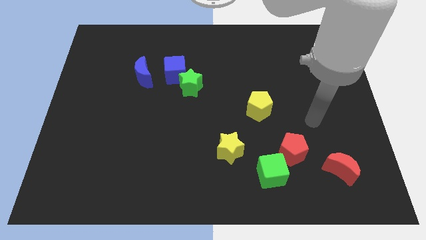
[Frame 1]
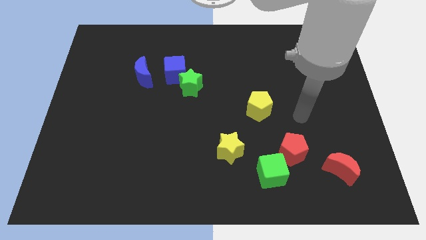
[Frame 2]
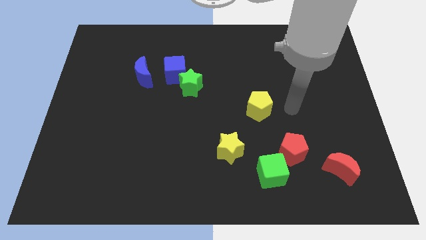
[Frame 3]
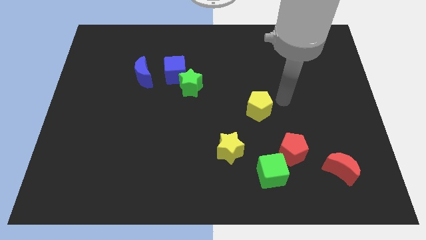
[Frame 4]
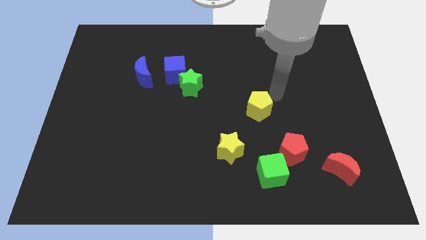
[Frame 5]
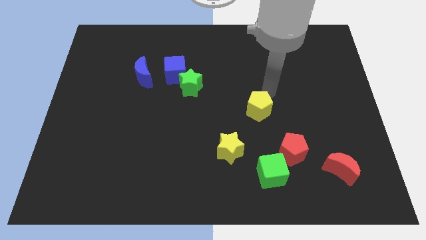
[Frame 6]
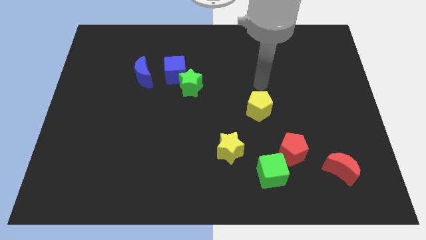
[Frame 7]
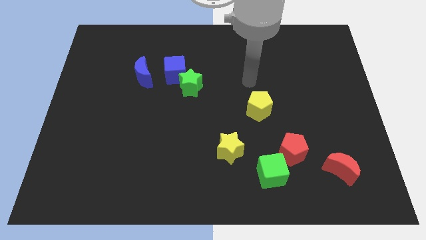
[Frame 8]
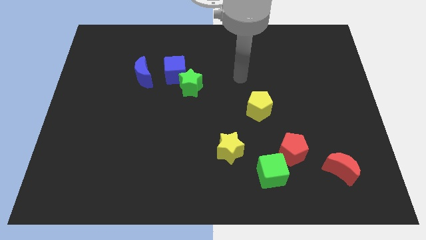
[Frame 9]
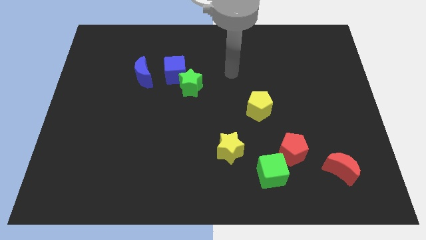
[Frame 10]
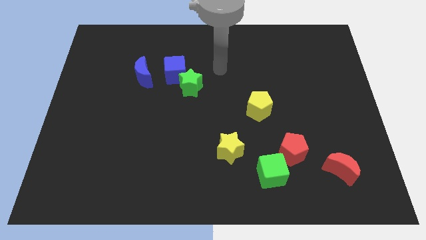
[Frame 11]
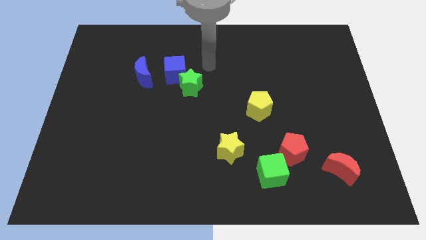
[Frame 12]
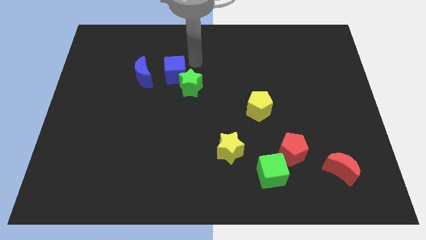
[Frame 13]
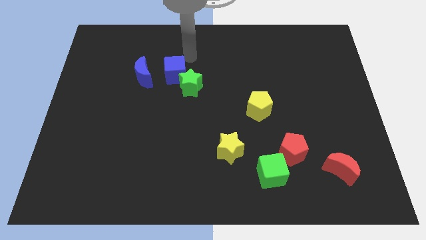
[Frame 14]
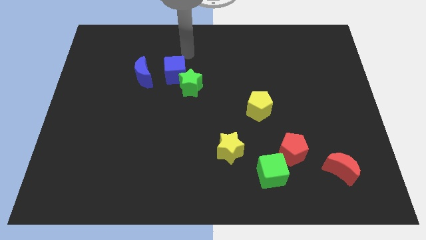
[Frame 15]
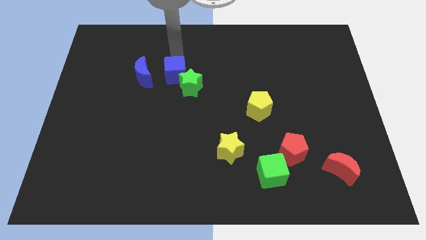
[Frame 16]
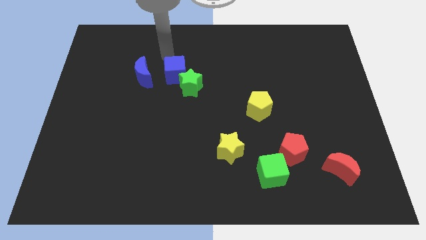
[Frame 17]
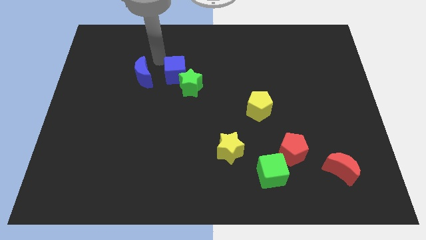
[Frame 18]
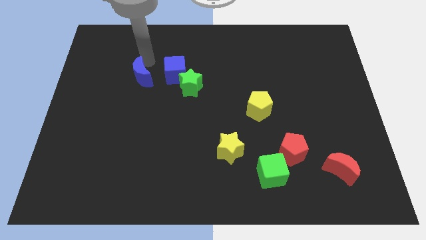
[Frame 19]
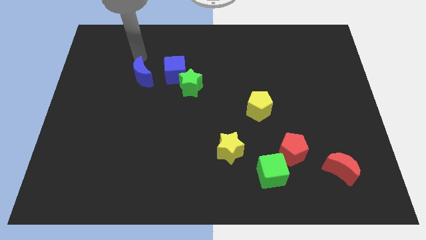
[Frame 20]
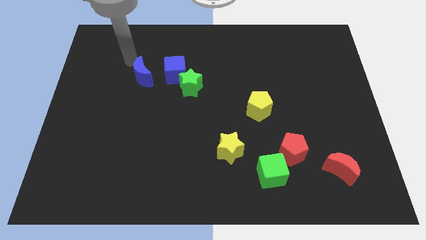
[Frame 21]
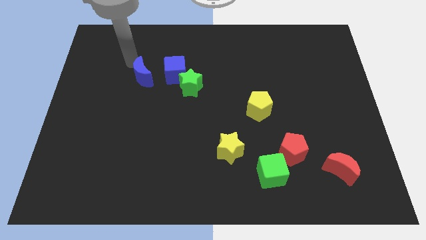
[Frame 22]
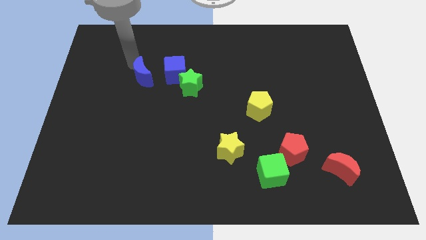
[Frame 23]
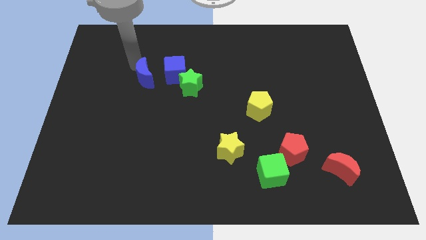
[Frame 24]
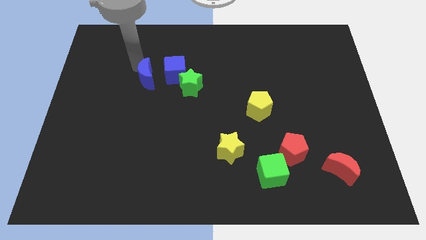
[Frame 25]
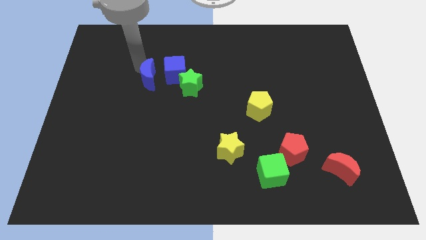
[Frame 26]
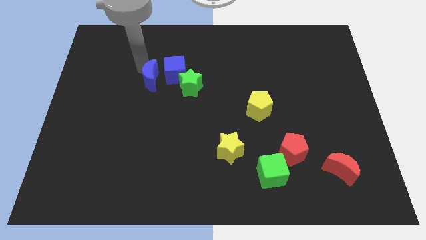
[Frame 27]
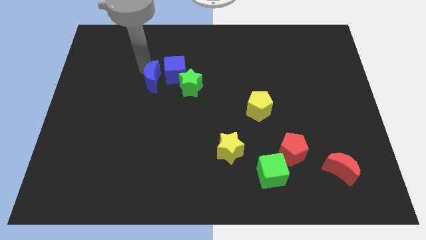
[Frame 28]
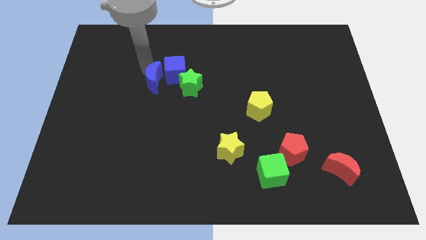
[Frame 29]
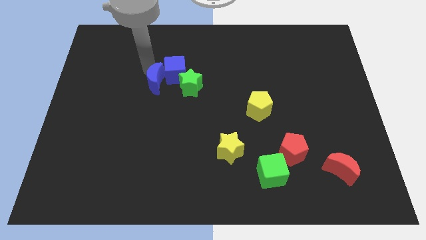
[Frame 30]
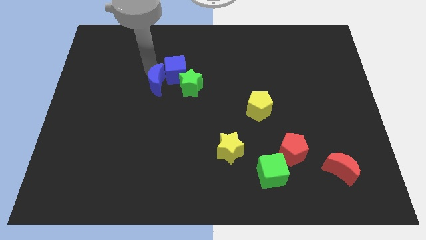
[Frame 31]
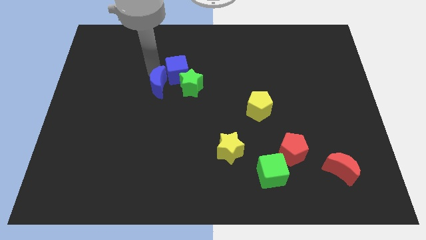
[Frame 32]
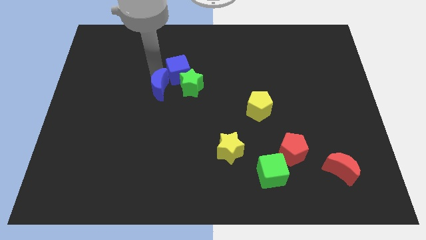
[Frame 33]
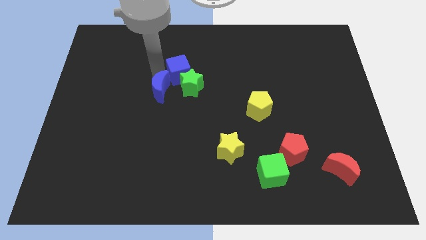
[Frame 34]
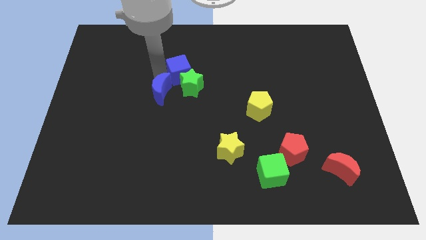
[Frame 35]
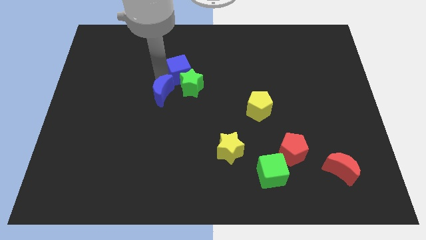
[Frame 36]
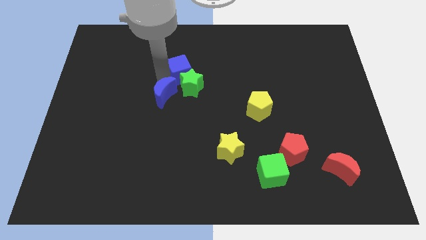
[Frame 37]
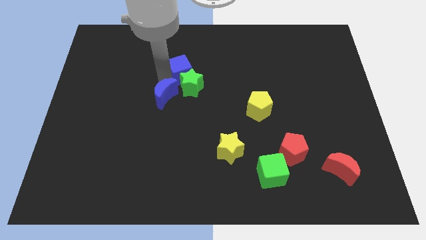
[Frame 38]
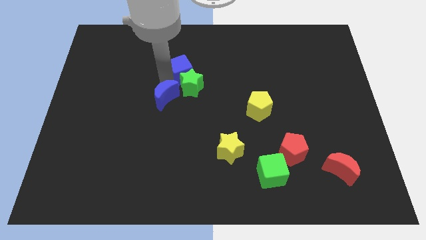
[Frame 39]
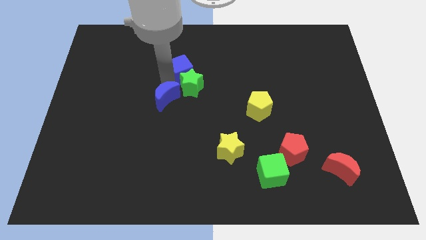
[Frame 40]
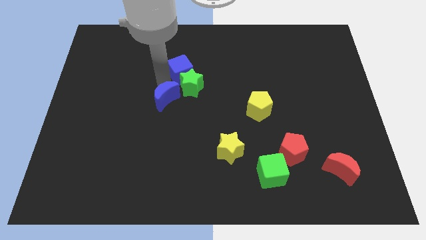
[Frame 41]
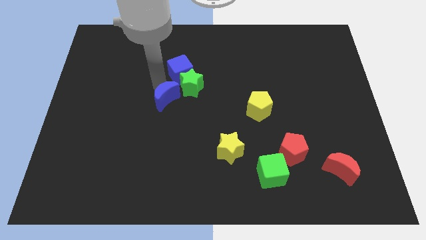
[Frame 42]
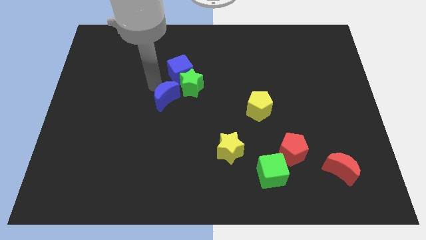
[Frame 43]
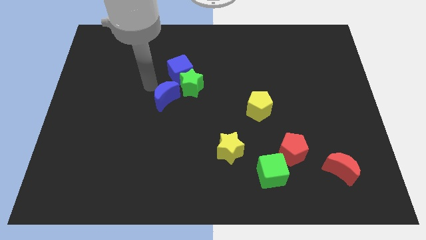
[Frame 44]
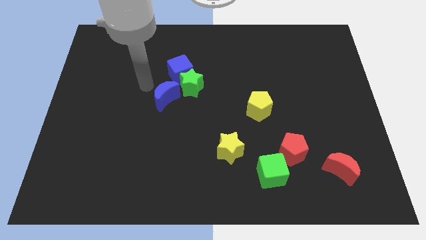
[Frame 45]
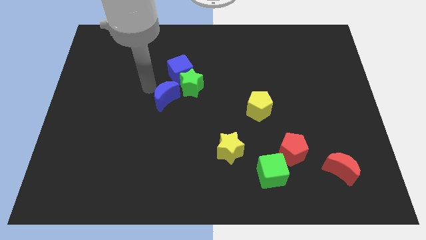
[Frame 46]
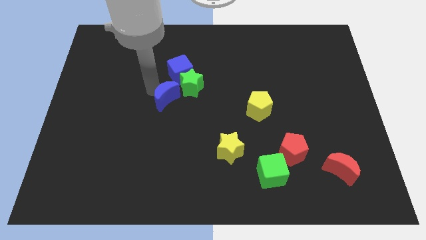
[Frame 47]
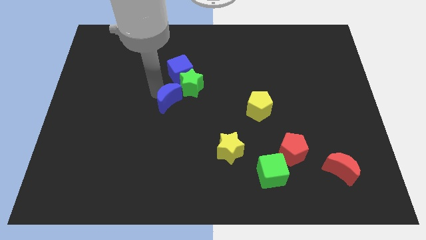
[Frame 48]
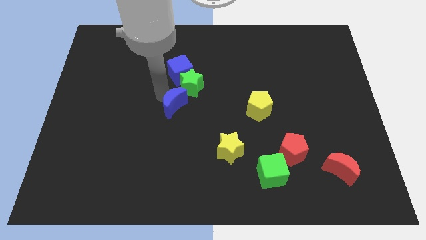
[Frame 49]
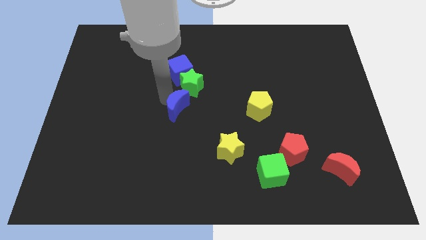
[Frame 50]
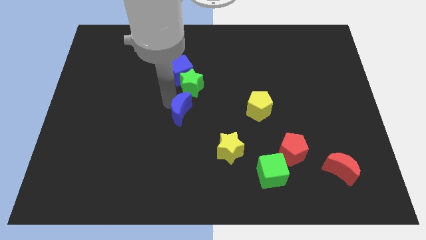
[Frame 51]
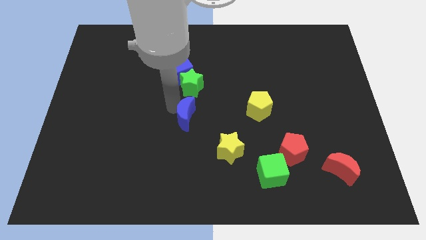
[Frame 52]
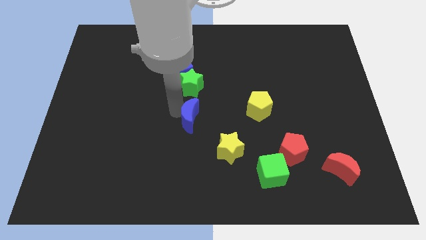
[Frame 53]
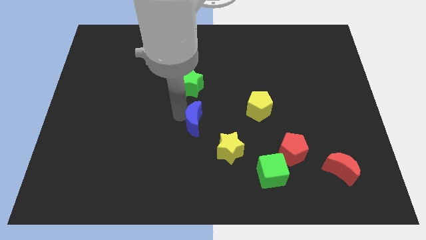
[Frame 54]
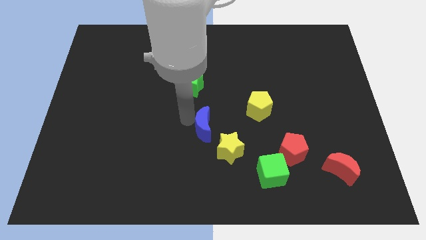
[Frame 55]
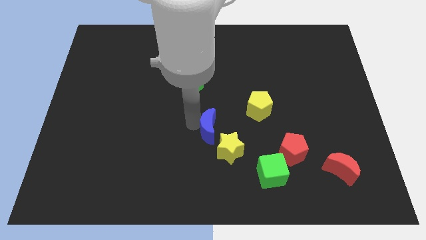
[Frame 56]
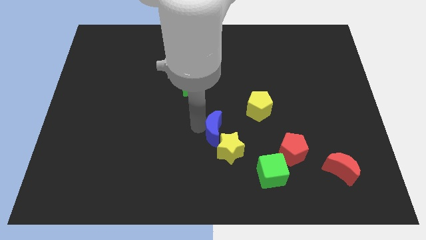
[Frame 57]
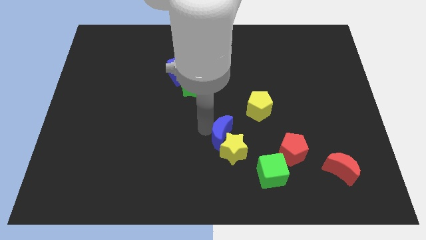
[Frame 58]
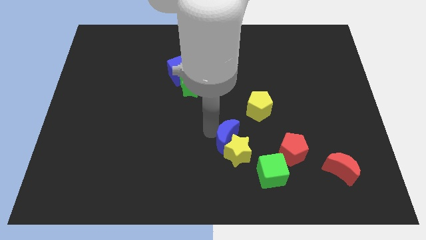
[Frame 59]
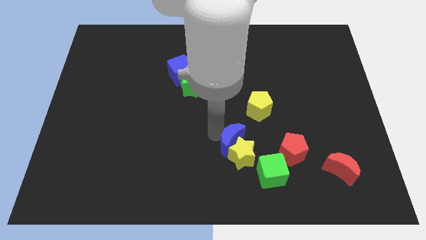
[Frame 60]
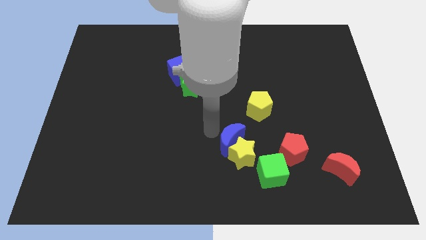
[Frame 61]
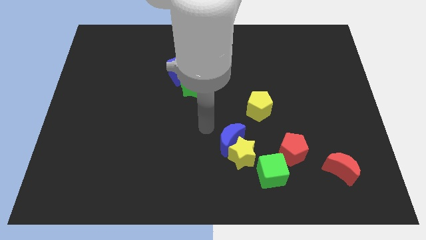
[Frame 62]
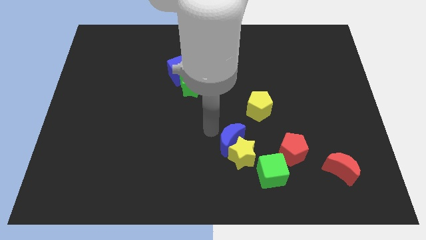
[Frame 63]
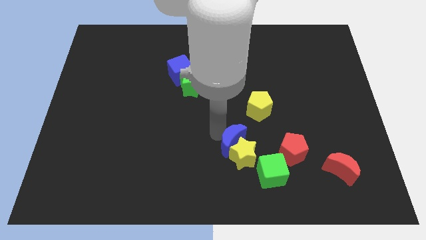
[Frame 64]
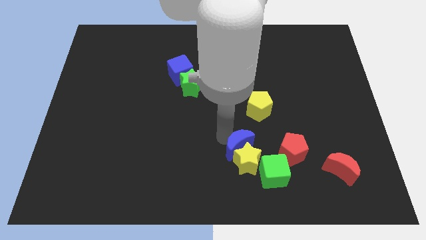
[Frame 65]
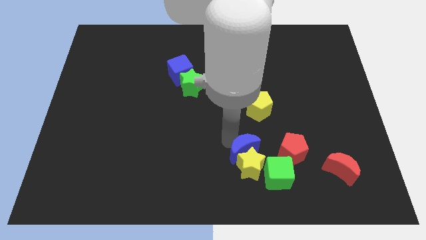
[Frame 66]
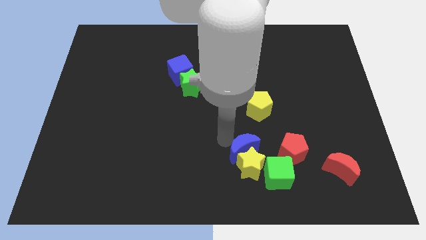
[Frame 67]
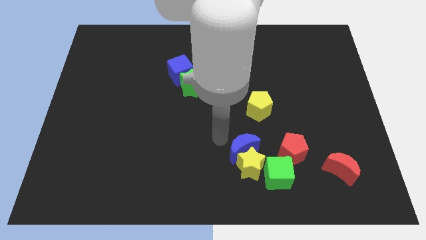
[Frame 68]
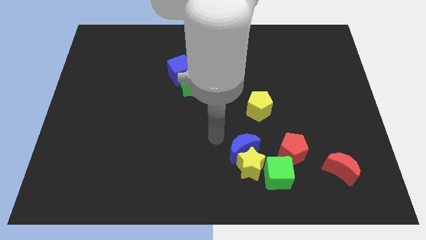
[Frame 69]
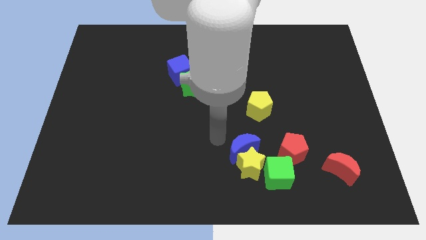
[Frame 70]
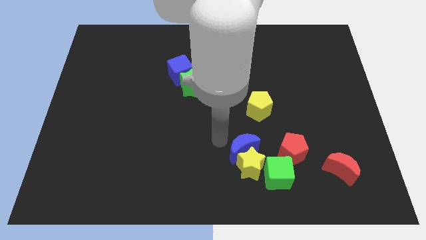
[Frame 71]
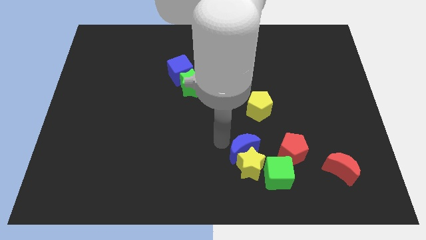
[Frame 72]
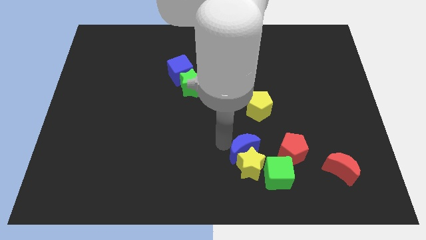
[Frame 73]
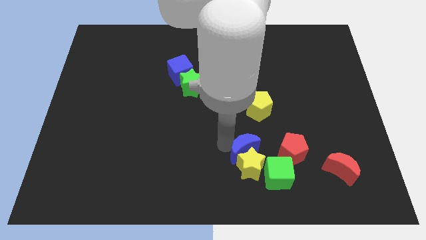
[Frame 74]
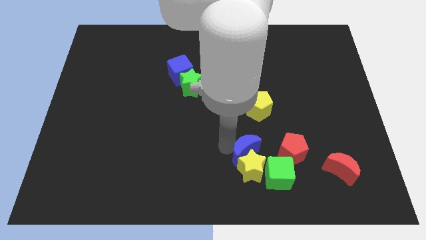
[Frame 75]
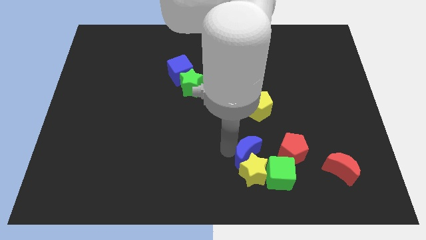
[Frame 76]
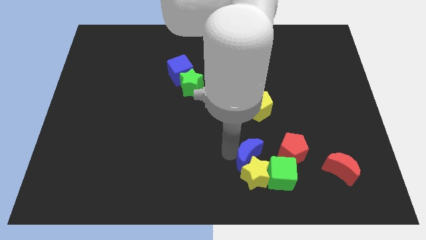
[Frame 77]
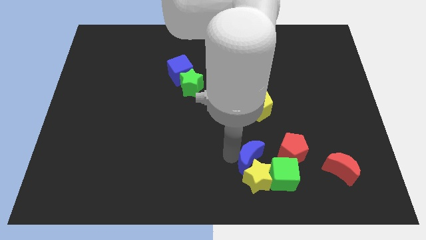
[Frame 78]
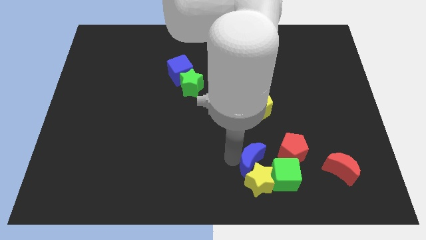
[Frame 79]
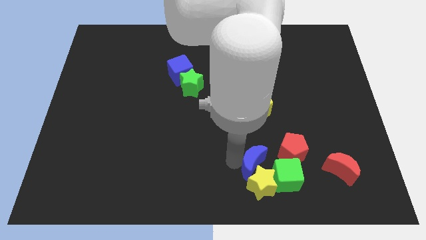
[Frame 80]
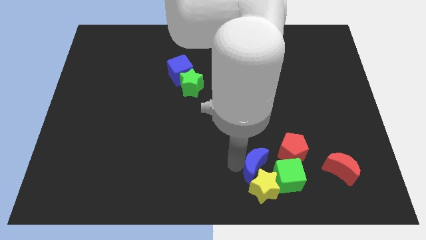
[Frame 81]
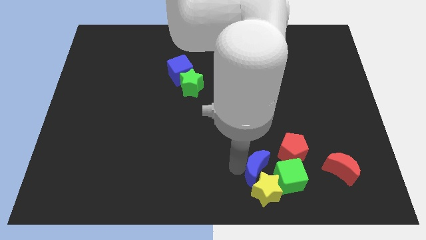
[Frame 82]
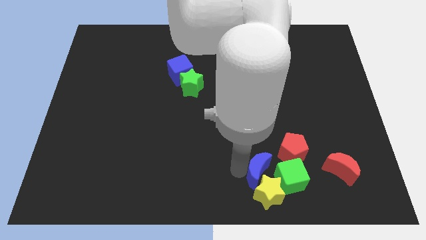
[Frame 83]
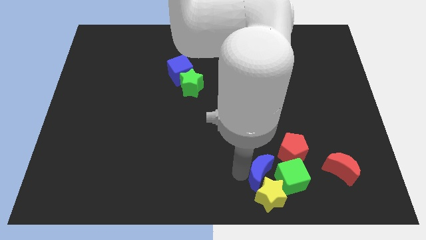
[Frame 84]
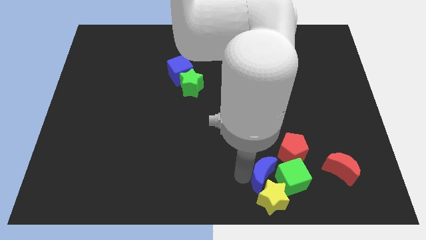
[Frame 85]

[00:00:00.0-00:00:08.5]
slide the blue moon next to the green cube
